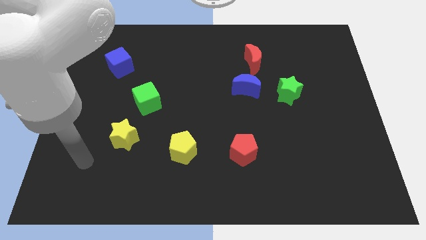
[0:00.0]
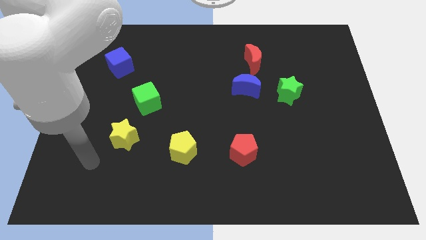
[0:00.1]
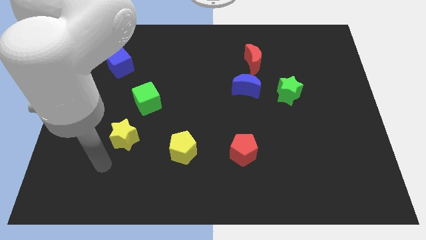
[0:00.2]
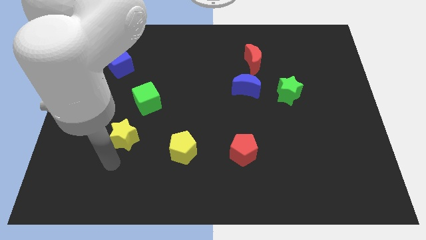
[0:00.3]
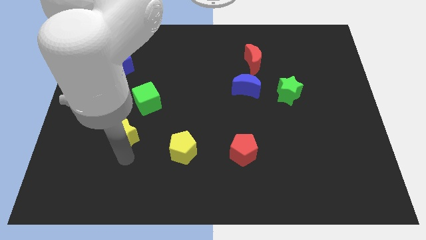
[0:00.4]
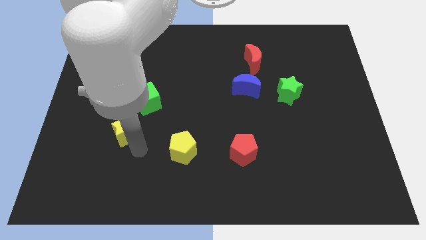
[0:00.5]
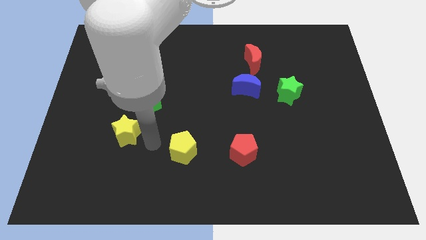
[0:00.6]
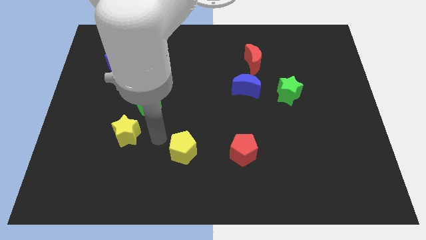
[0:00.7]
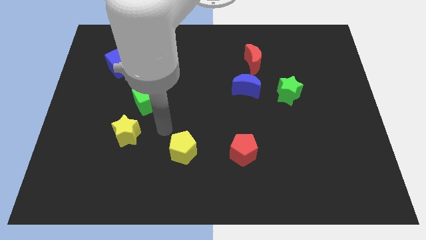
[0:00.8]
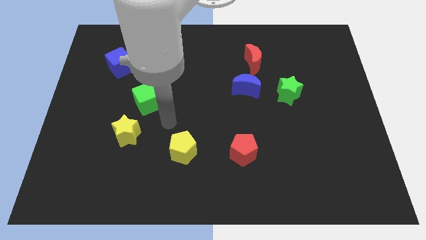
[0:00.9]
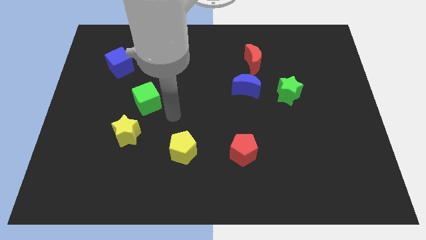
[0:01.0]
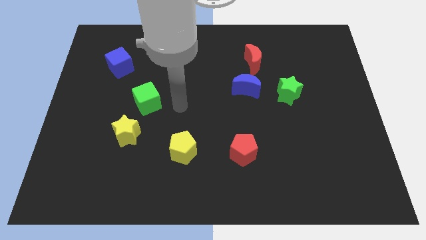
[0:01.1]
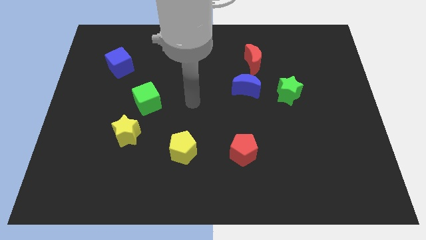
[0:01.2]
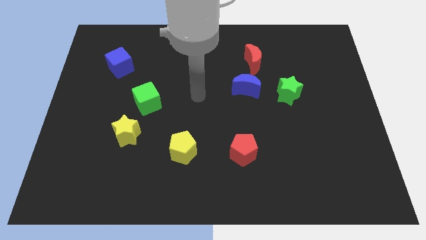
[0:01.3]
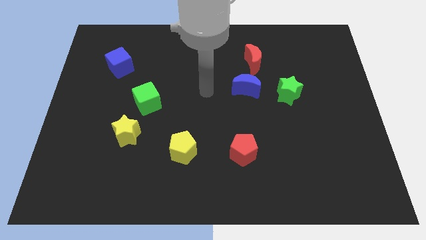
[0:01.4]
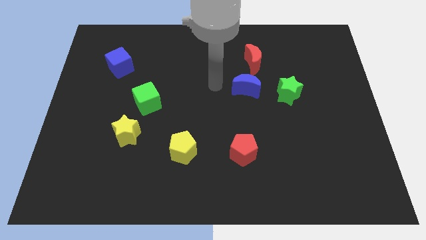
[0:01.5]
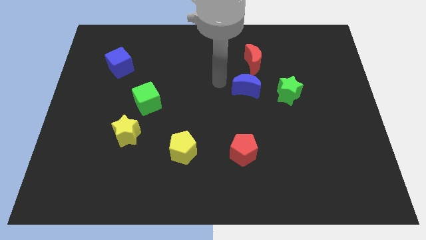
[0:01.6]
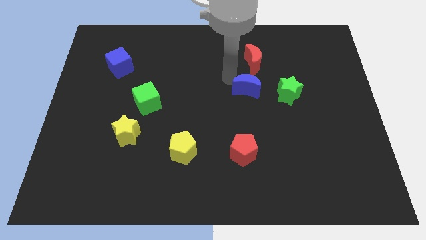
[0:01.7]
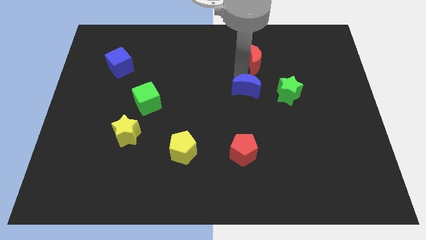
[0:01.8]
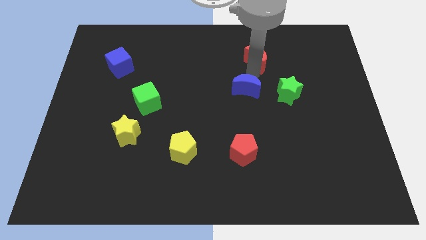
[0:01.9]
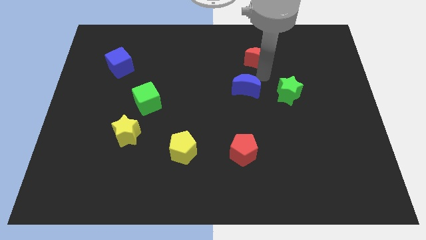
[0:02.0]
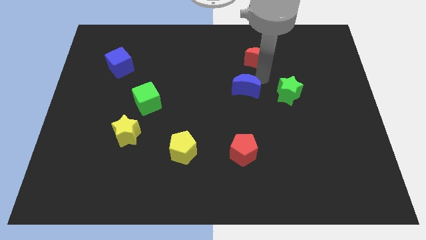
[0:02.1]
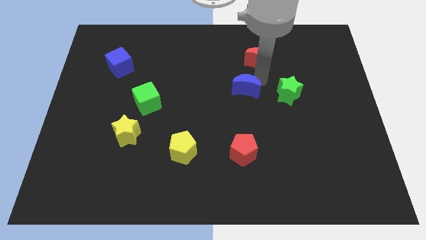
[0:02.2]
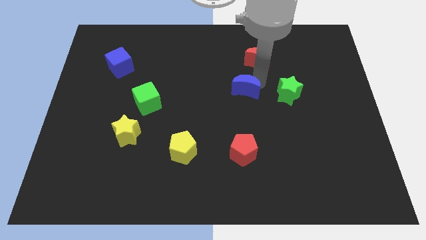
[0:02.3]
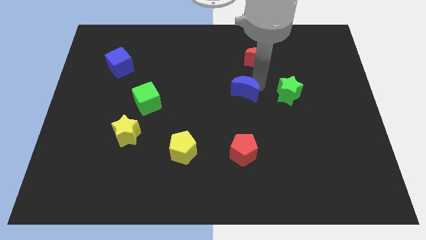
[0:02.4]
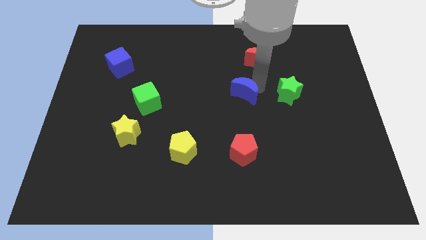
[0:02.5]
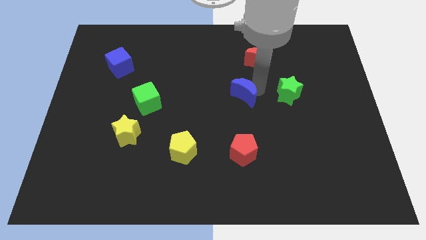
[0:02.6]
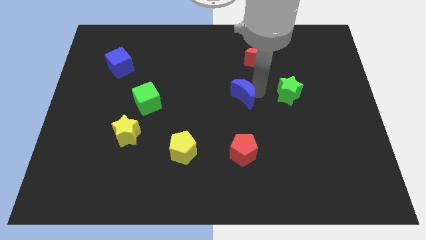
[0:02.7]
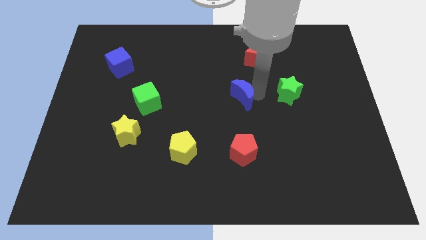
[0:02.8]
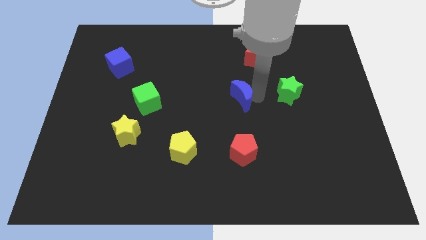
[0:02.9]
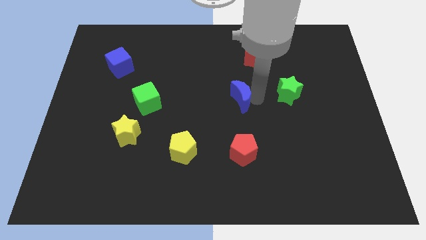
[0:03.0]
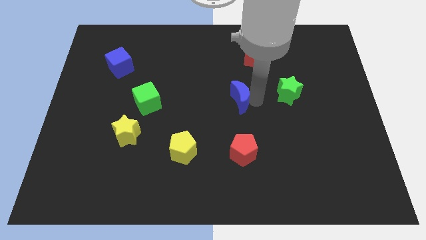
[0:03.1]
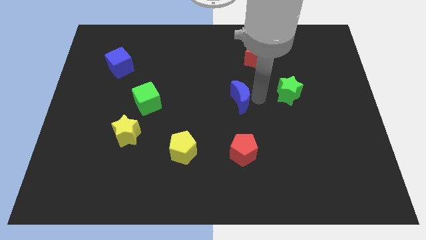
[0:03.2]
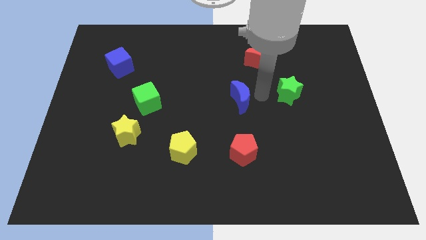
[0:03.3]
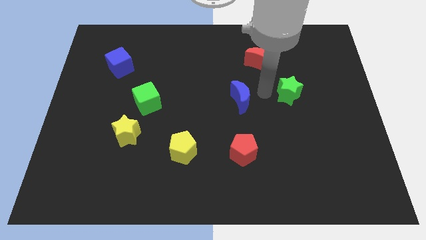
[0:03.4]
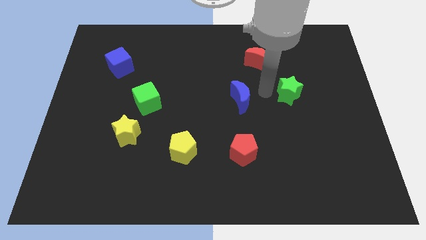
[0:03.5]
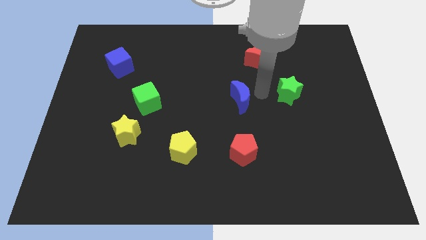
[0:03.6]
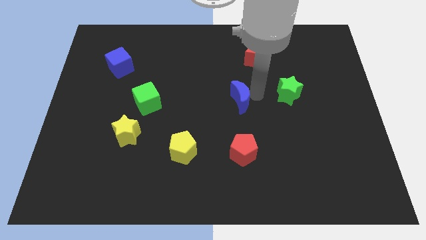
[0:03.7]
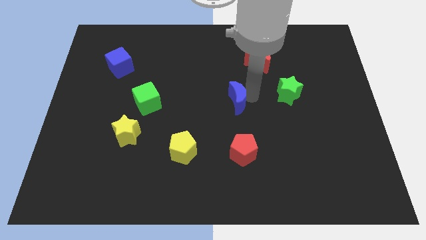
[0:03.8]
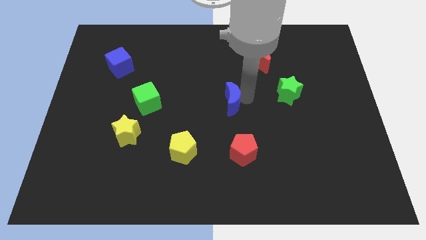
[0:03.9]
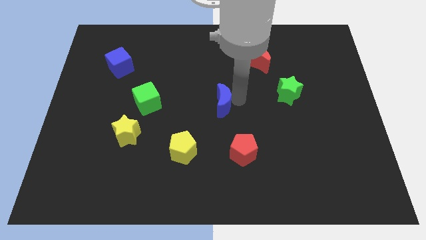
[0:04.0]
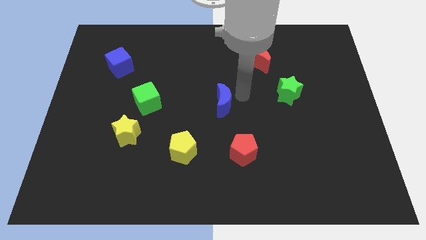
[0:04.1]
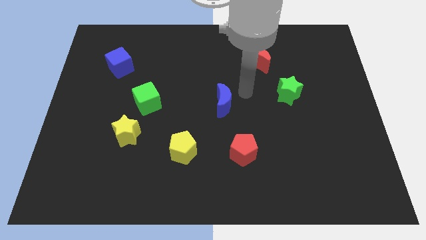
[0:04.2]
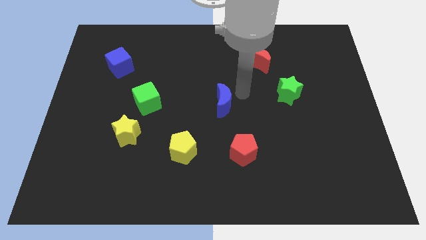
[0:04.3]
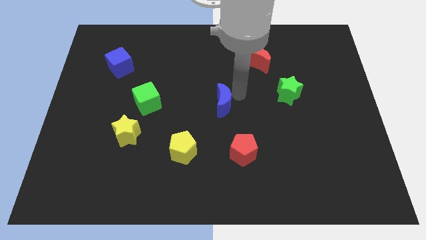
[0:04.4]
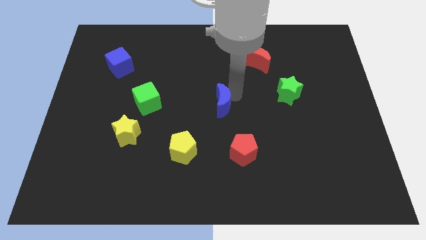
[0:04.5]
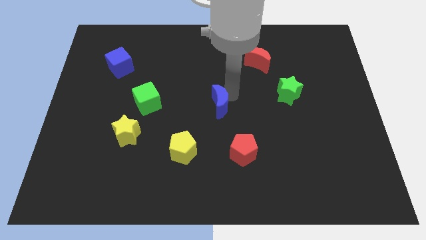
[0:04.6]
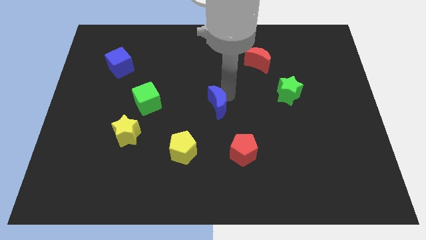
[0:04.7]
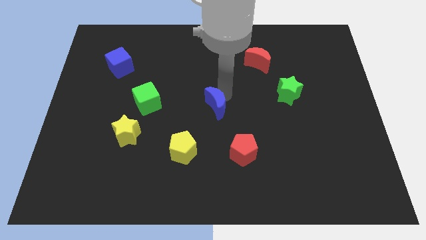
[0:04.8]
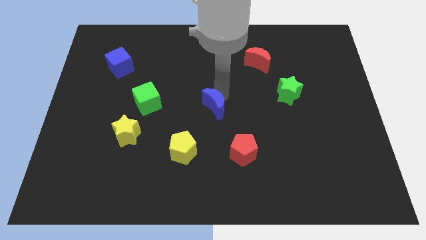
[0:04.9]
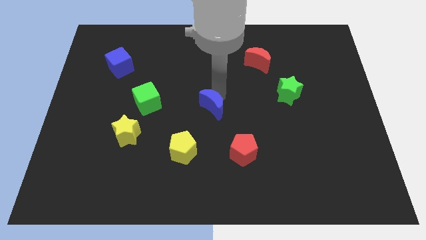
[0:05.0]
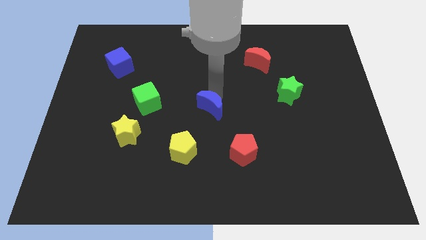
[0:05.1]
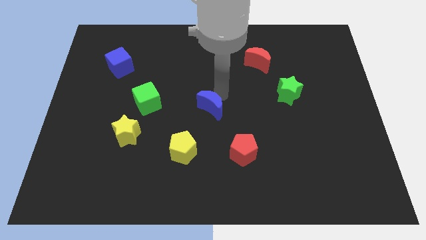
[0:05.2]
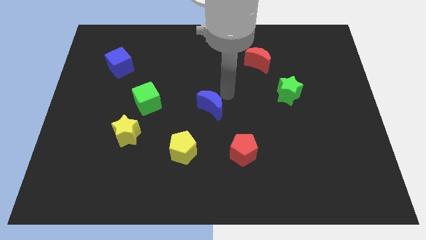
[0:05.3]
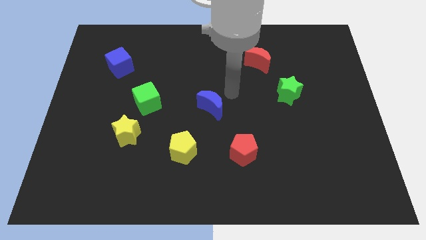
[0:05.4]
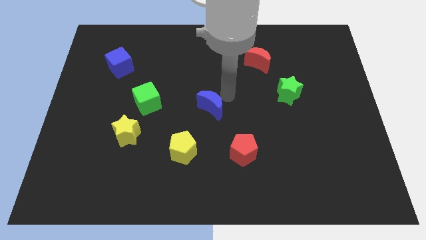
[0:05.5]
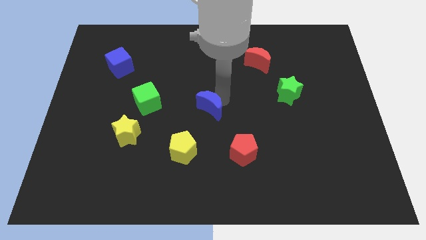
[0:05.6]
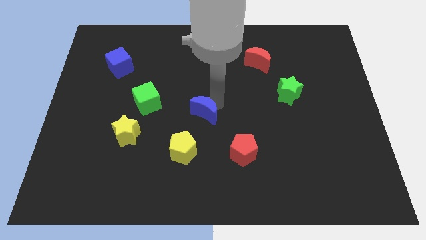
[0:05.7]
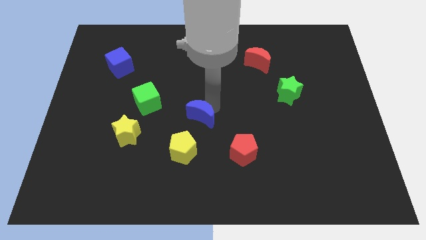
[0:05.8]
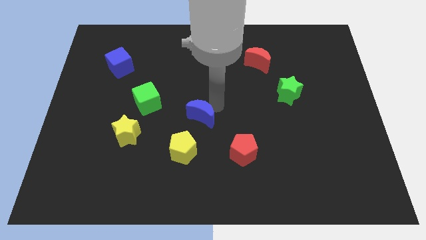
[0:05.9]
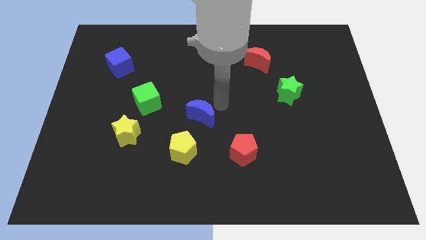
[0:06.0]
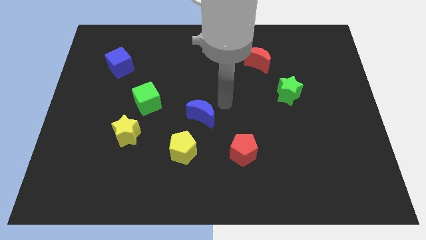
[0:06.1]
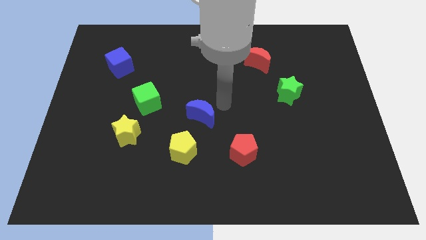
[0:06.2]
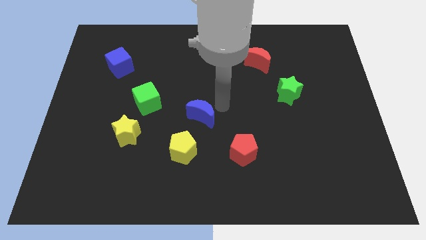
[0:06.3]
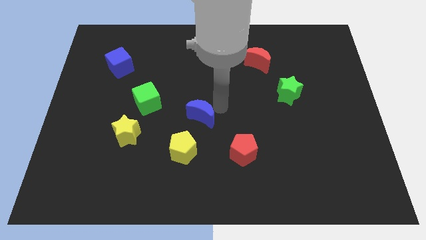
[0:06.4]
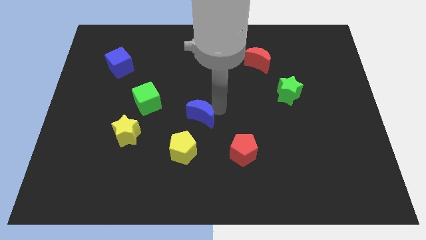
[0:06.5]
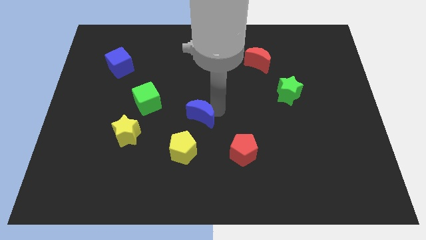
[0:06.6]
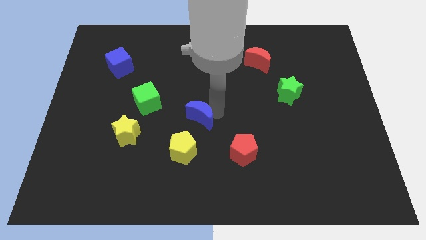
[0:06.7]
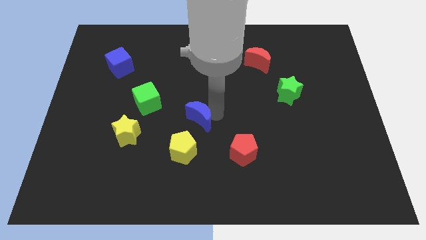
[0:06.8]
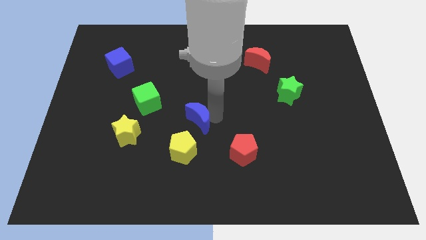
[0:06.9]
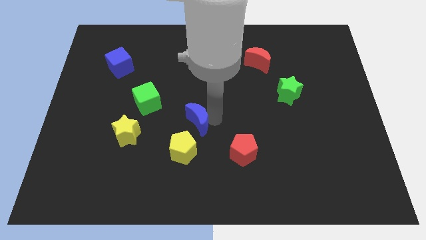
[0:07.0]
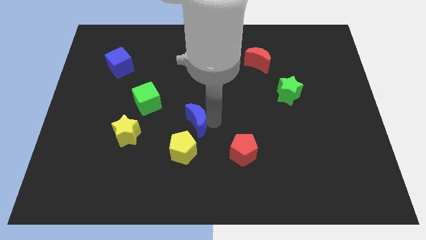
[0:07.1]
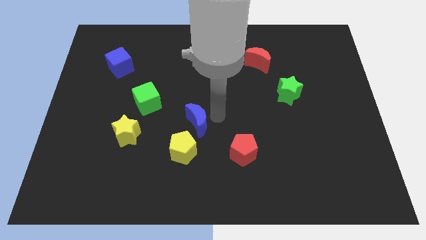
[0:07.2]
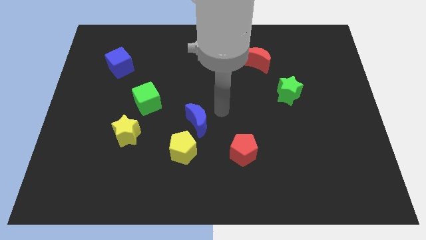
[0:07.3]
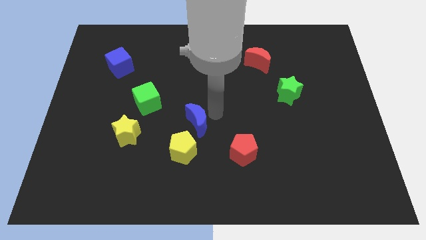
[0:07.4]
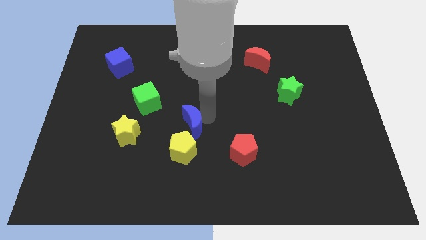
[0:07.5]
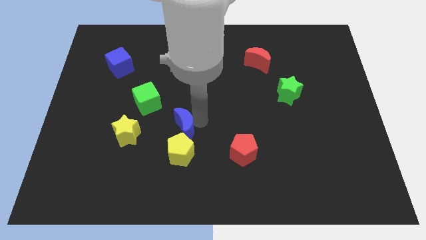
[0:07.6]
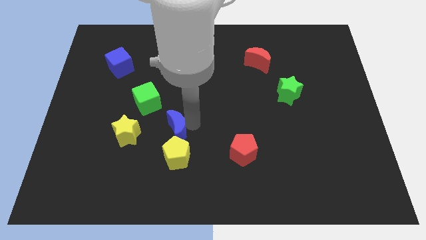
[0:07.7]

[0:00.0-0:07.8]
move the blue moon downwards and to the left
